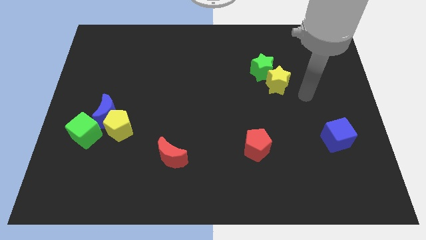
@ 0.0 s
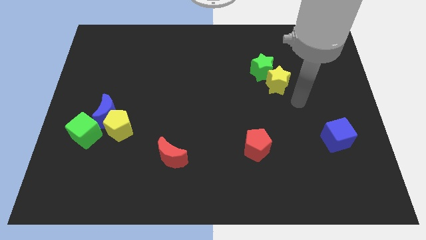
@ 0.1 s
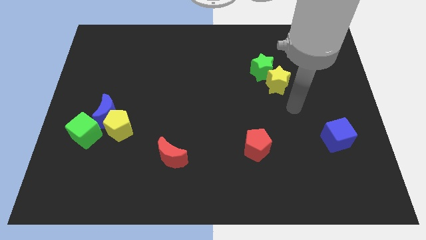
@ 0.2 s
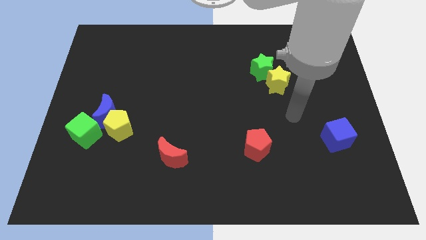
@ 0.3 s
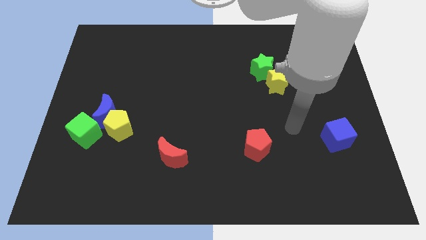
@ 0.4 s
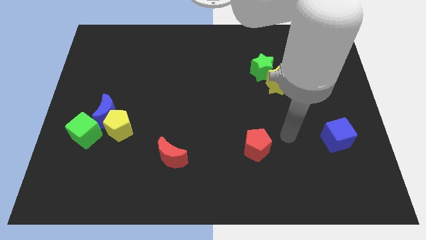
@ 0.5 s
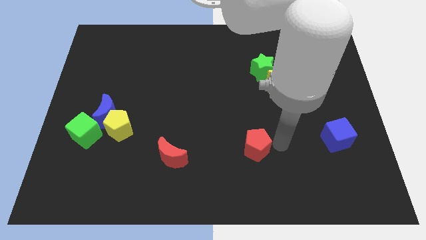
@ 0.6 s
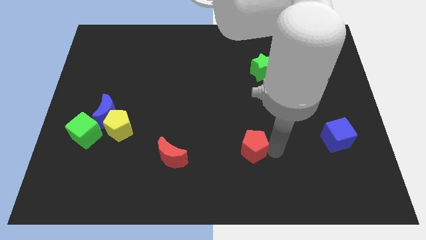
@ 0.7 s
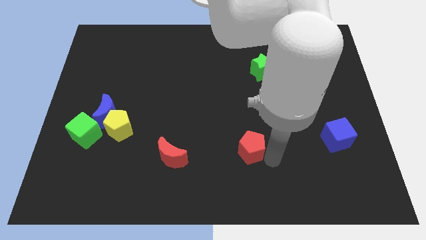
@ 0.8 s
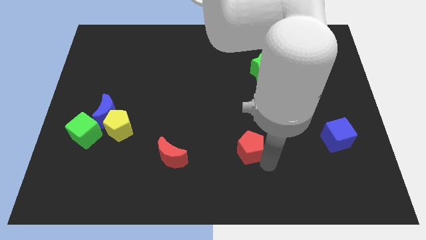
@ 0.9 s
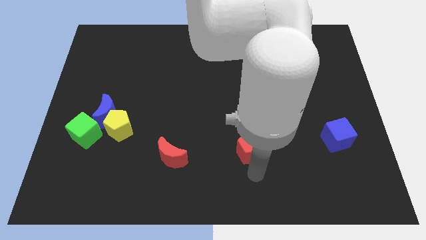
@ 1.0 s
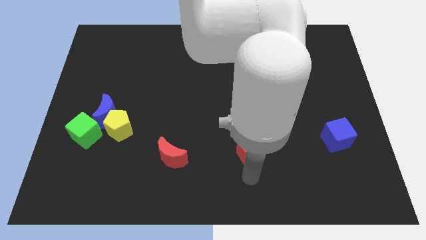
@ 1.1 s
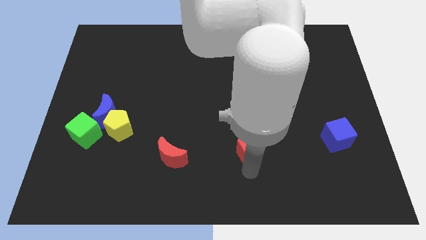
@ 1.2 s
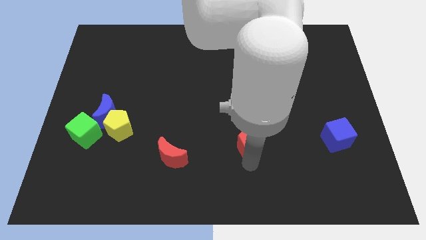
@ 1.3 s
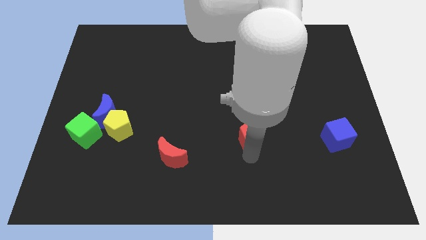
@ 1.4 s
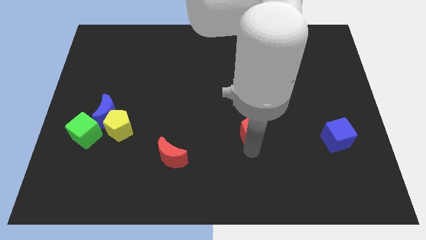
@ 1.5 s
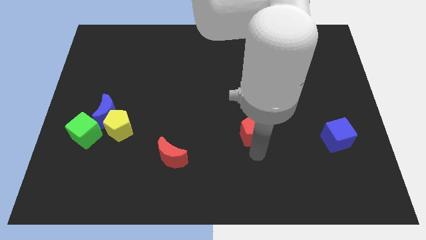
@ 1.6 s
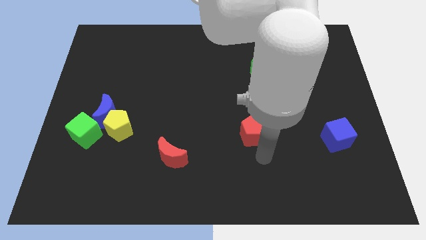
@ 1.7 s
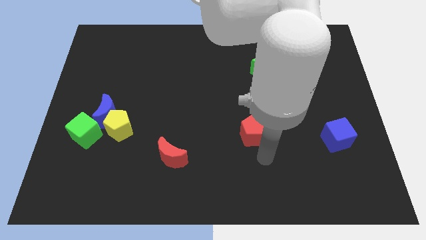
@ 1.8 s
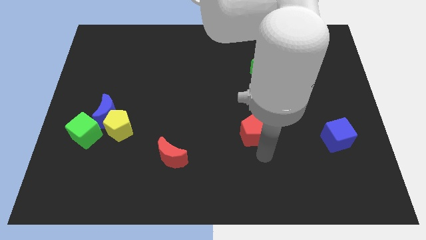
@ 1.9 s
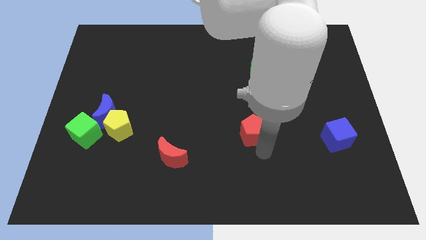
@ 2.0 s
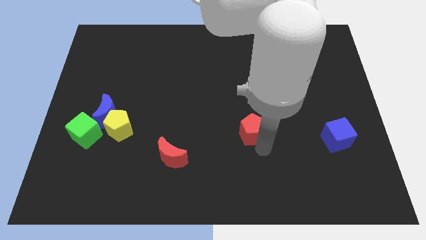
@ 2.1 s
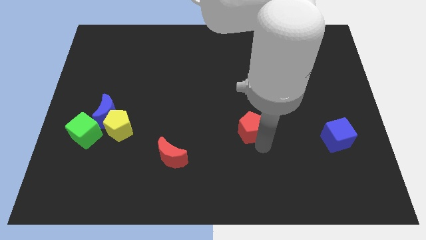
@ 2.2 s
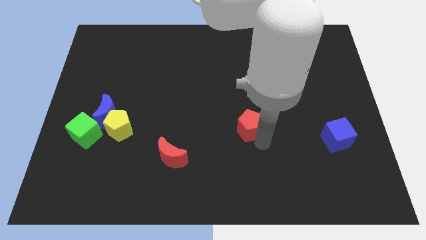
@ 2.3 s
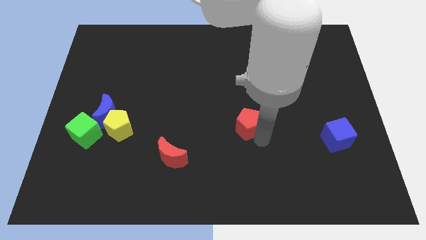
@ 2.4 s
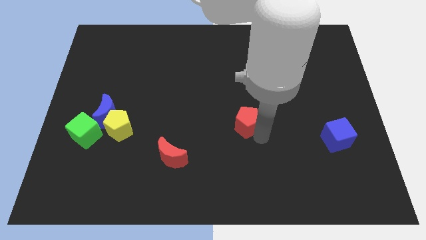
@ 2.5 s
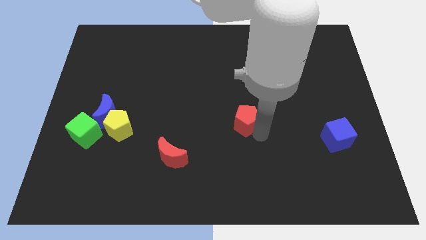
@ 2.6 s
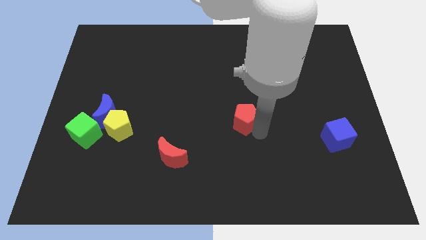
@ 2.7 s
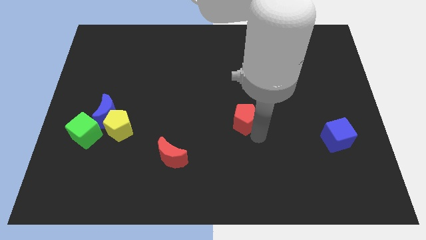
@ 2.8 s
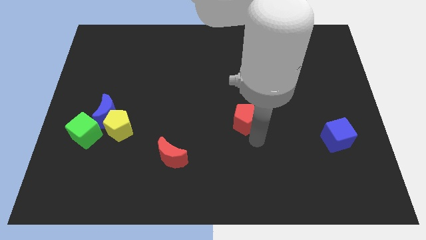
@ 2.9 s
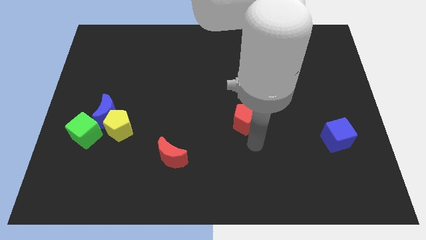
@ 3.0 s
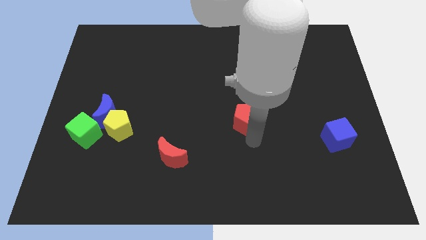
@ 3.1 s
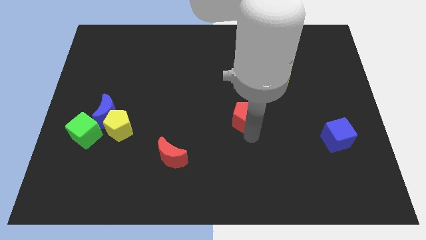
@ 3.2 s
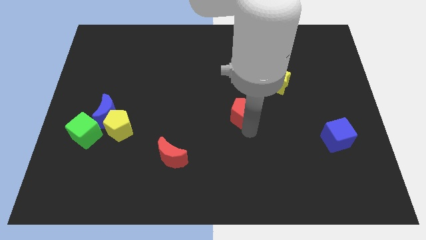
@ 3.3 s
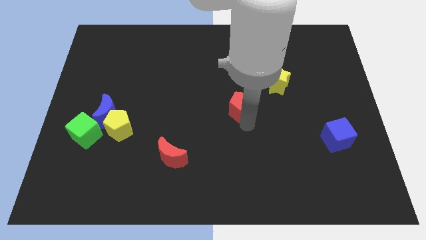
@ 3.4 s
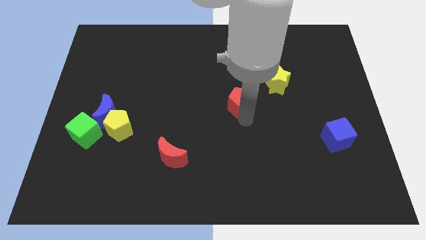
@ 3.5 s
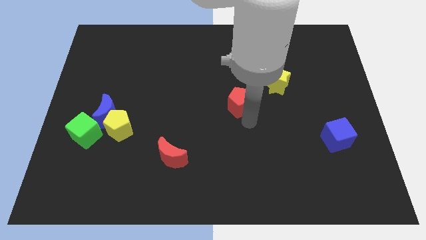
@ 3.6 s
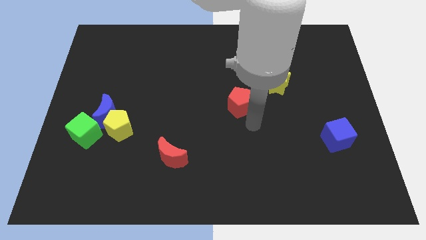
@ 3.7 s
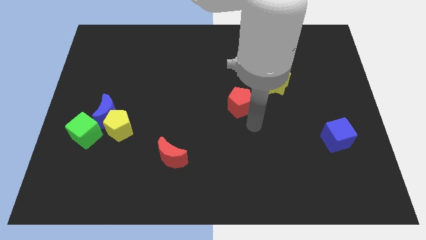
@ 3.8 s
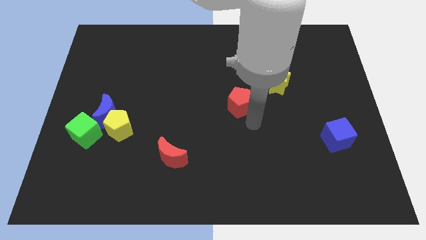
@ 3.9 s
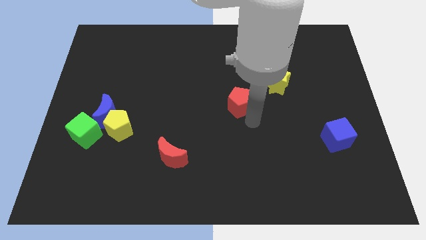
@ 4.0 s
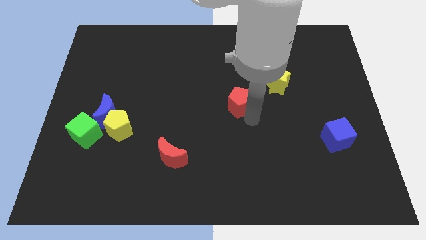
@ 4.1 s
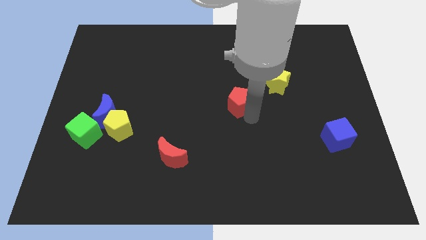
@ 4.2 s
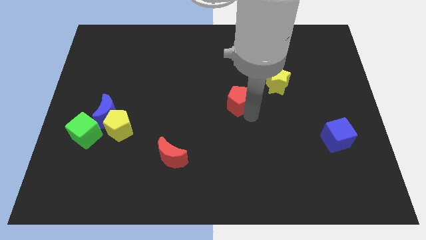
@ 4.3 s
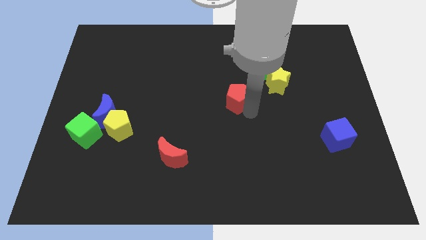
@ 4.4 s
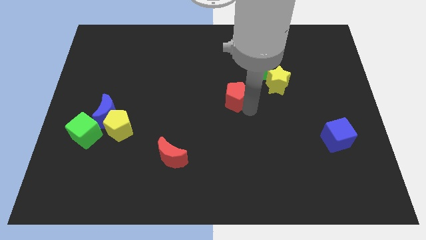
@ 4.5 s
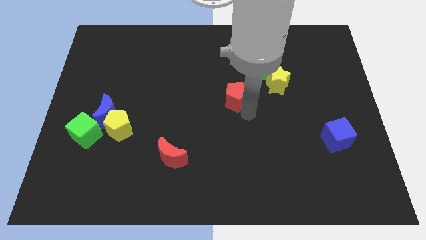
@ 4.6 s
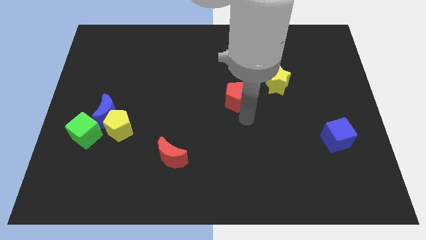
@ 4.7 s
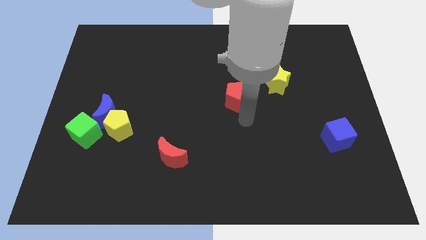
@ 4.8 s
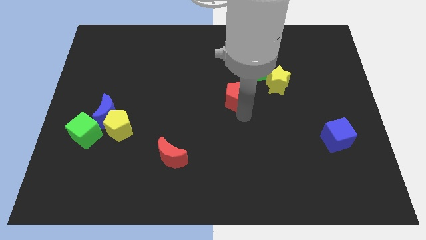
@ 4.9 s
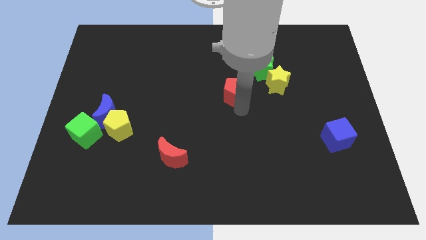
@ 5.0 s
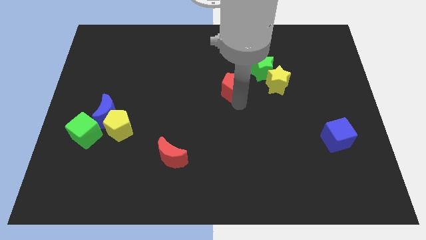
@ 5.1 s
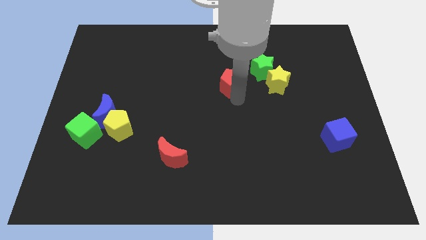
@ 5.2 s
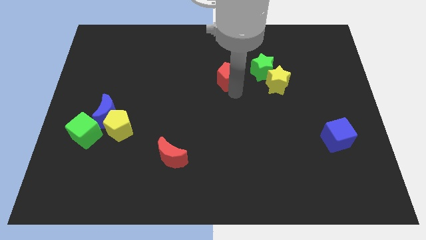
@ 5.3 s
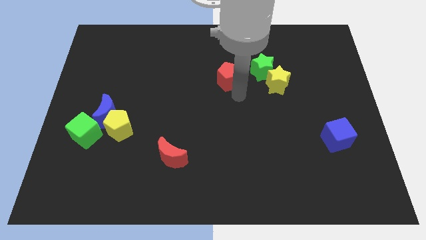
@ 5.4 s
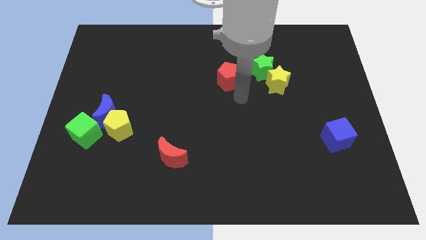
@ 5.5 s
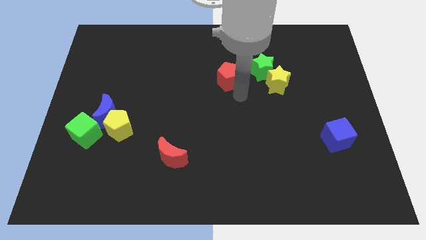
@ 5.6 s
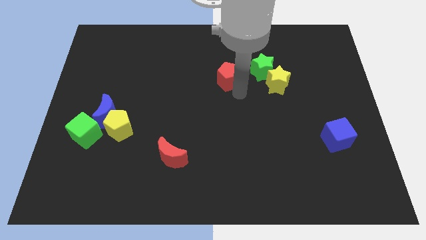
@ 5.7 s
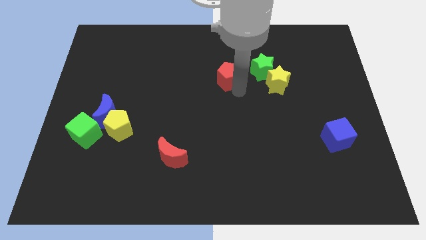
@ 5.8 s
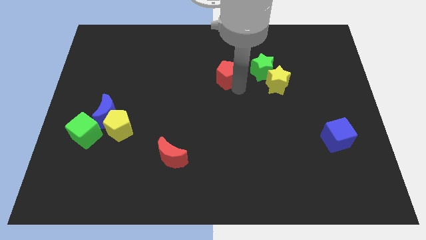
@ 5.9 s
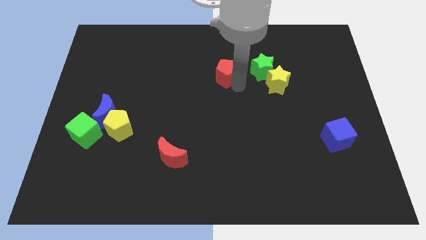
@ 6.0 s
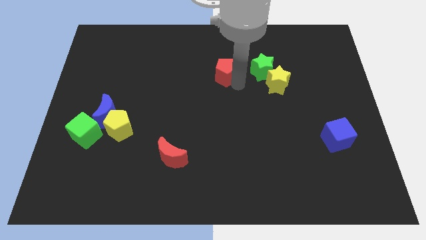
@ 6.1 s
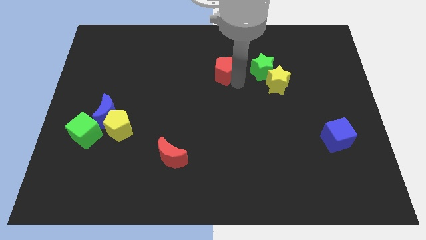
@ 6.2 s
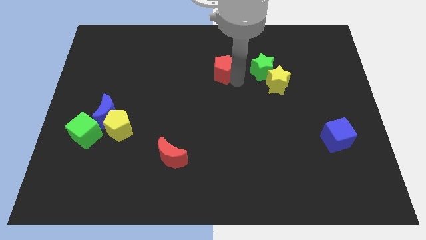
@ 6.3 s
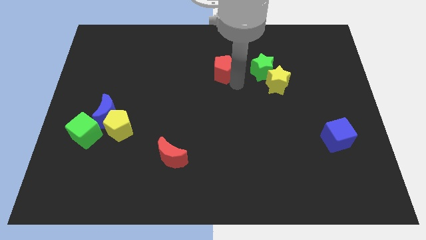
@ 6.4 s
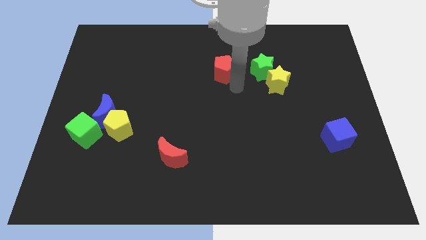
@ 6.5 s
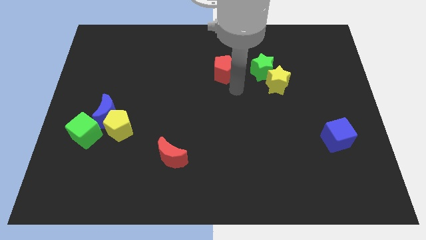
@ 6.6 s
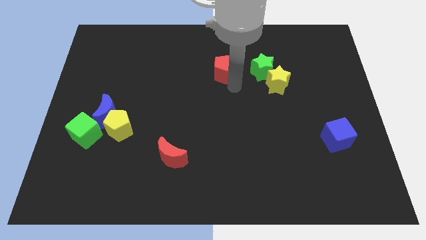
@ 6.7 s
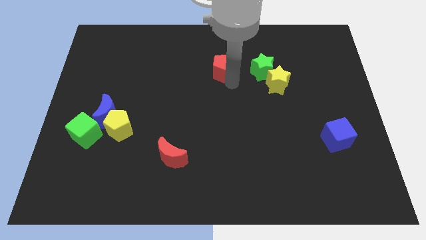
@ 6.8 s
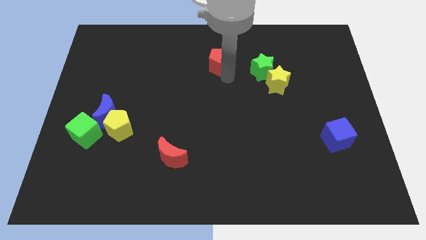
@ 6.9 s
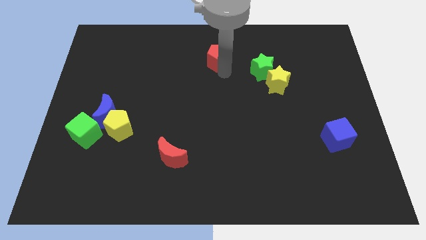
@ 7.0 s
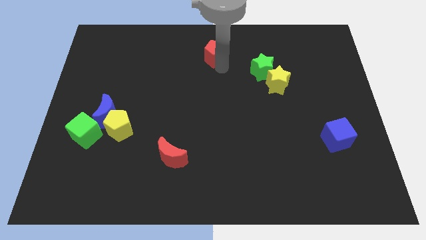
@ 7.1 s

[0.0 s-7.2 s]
slide the red pentagon to the top
